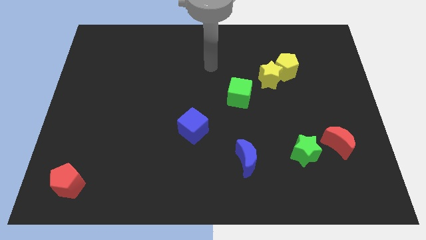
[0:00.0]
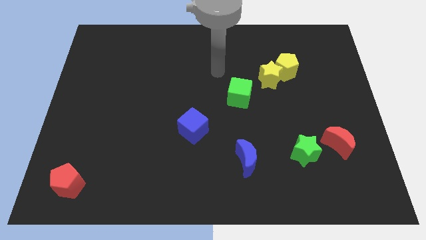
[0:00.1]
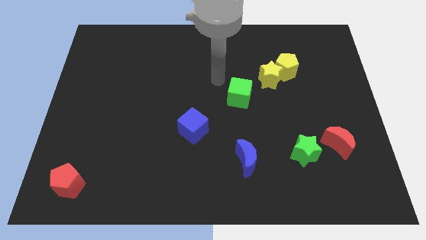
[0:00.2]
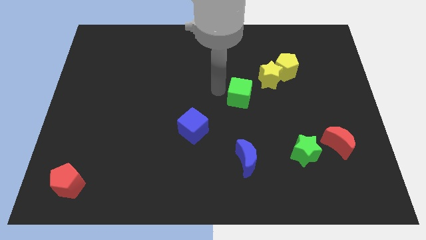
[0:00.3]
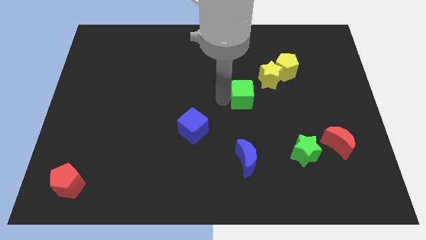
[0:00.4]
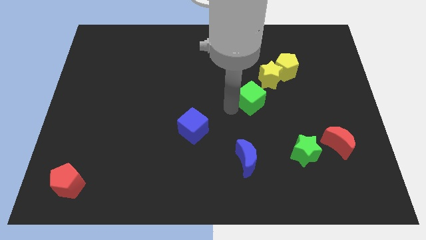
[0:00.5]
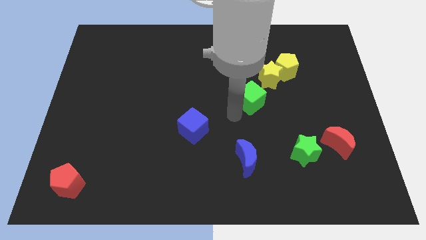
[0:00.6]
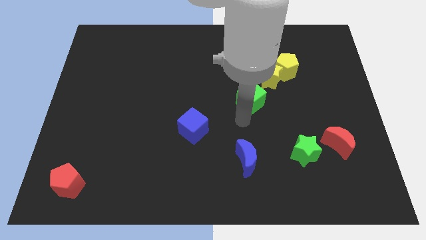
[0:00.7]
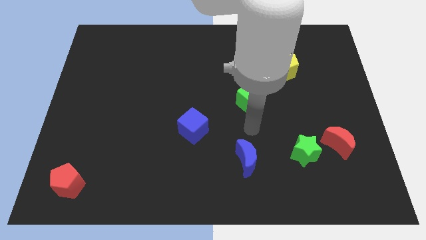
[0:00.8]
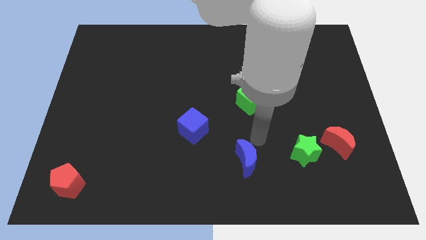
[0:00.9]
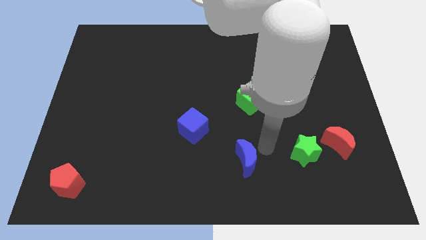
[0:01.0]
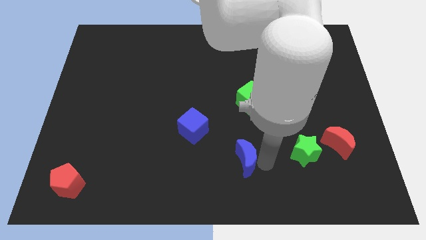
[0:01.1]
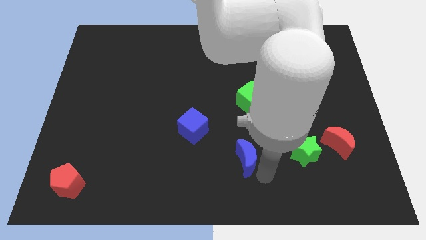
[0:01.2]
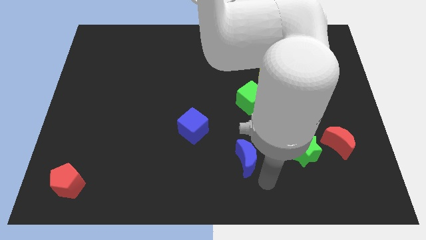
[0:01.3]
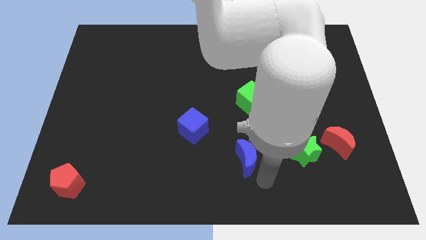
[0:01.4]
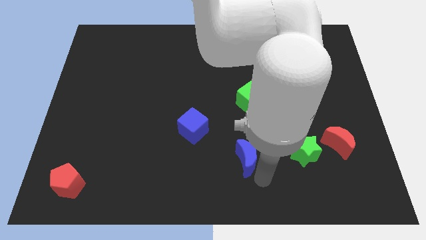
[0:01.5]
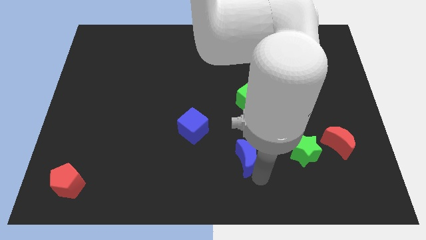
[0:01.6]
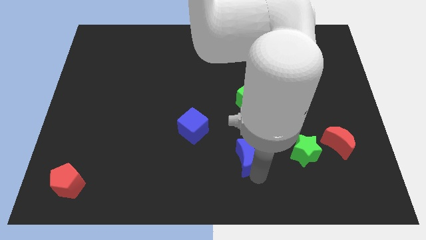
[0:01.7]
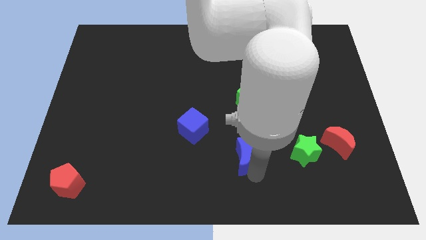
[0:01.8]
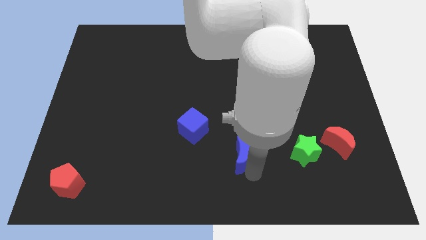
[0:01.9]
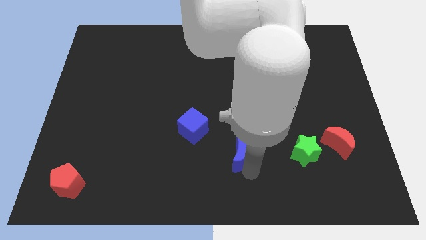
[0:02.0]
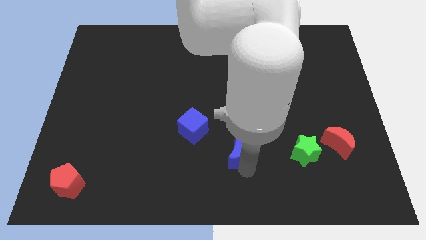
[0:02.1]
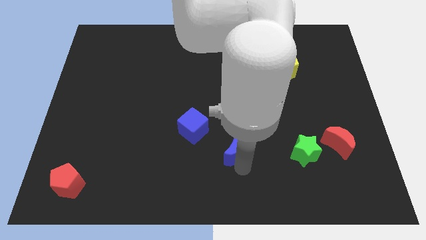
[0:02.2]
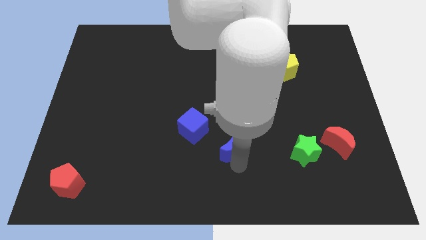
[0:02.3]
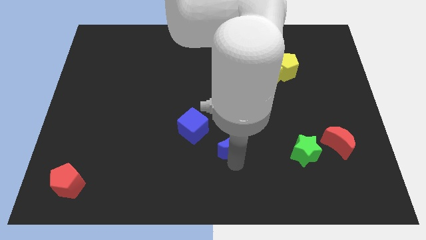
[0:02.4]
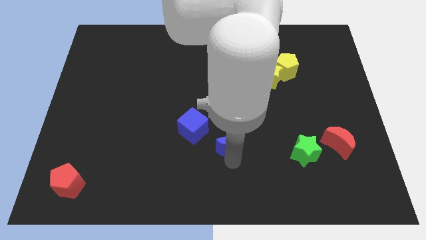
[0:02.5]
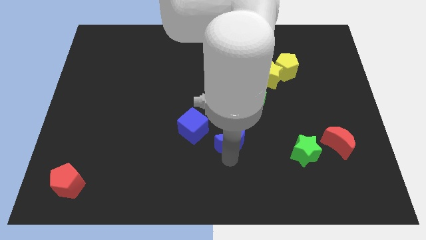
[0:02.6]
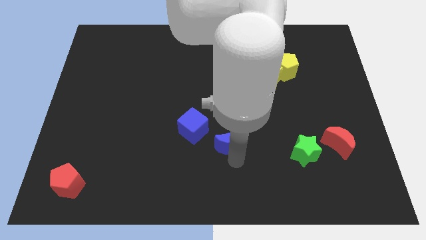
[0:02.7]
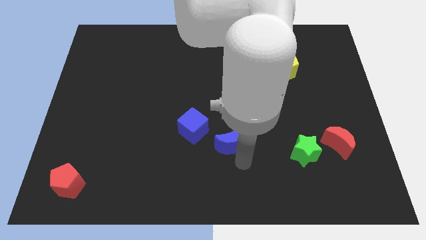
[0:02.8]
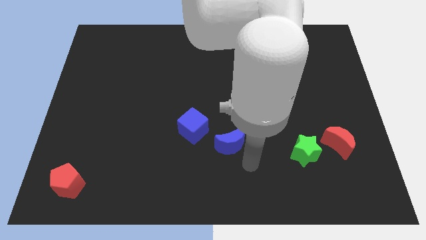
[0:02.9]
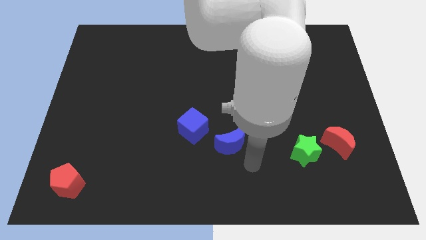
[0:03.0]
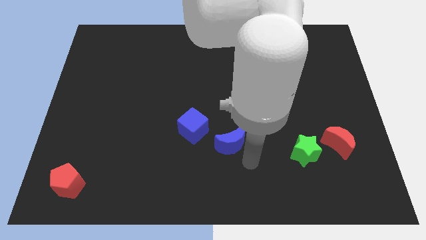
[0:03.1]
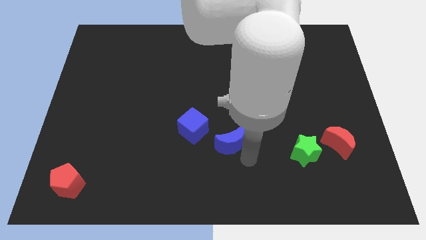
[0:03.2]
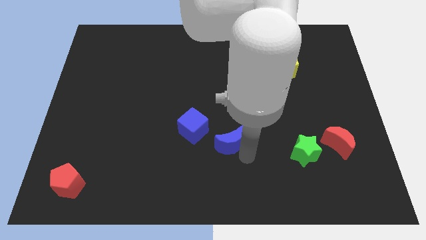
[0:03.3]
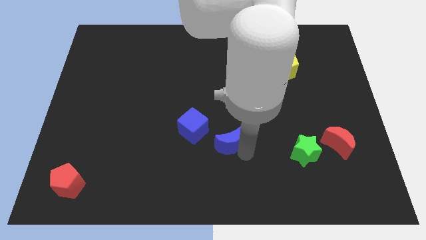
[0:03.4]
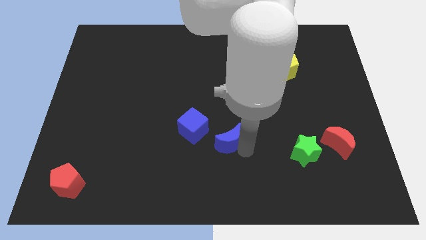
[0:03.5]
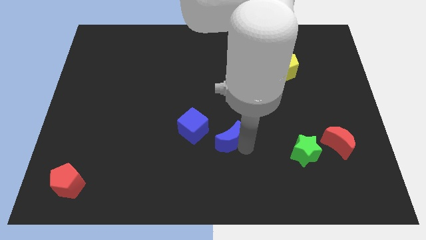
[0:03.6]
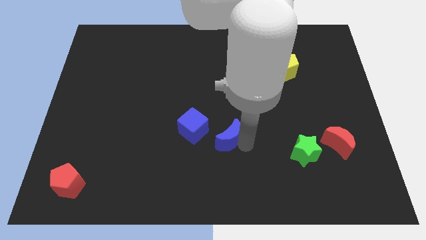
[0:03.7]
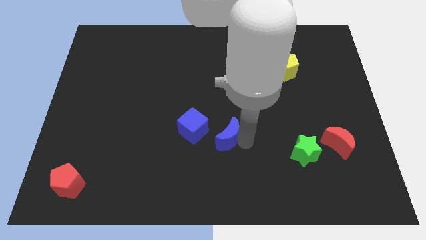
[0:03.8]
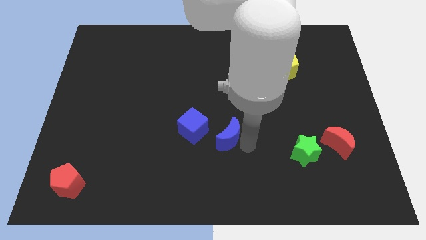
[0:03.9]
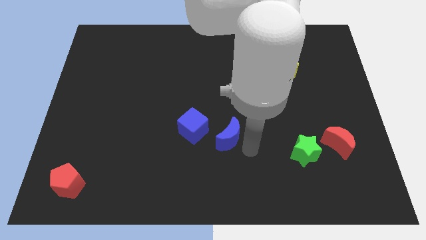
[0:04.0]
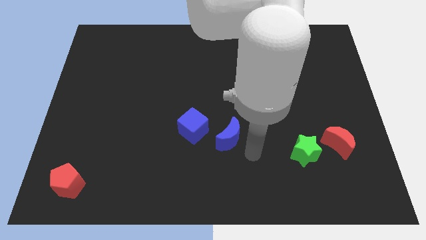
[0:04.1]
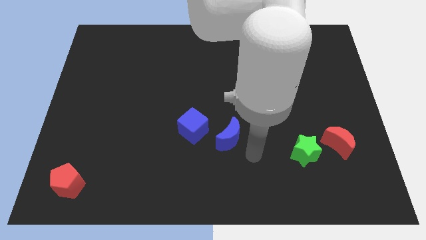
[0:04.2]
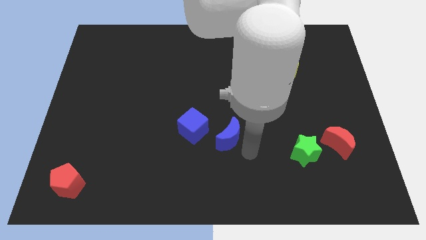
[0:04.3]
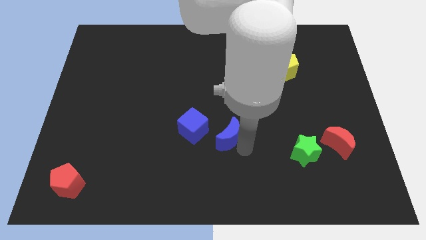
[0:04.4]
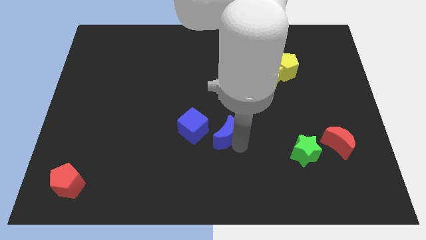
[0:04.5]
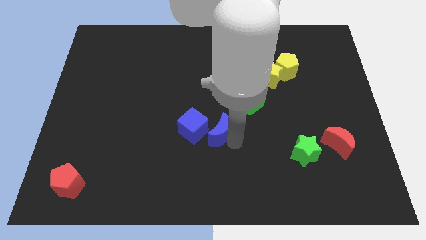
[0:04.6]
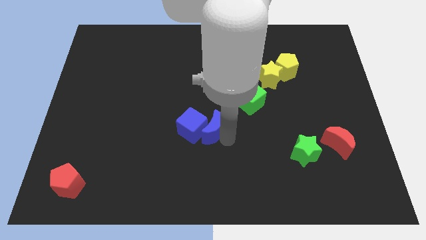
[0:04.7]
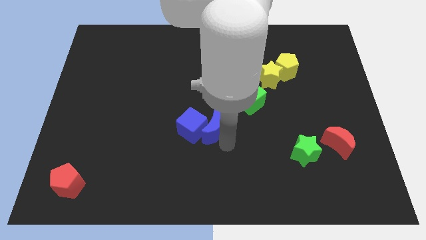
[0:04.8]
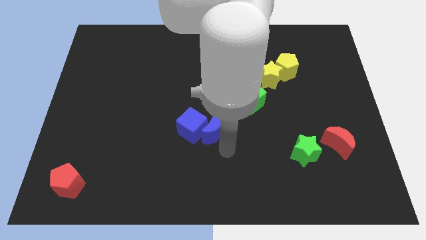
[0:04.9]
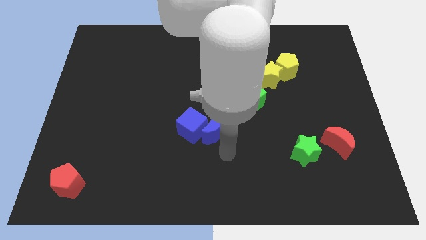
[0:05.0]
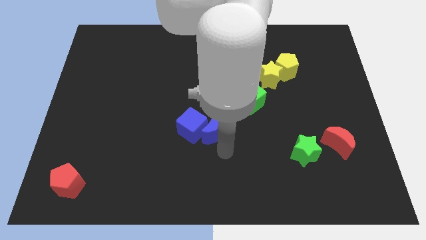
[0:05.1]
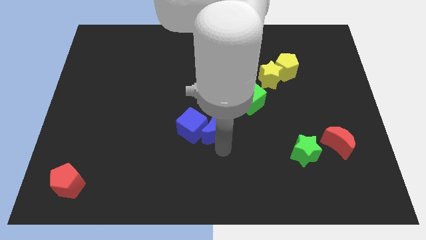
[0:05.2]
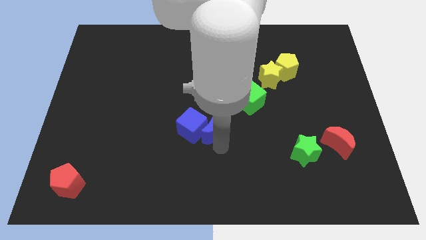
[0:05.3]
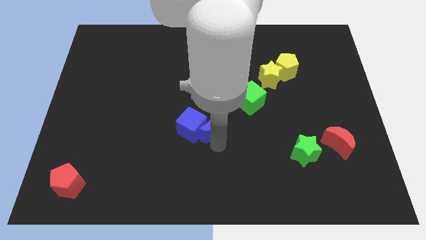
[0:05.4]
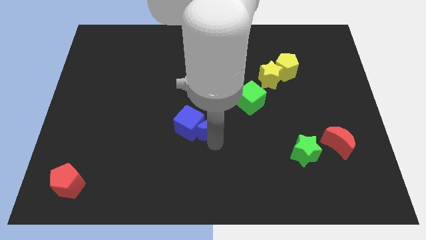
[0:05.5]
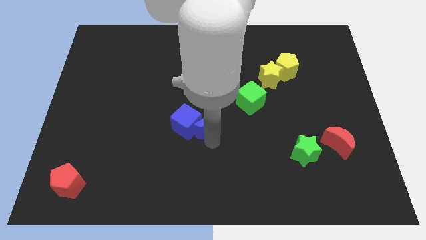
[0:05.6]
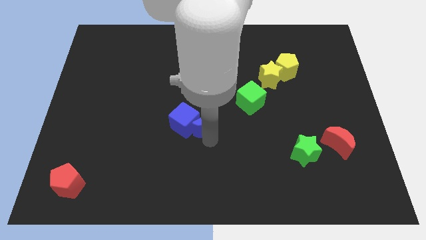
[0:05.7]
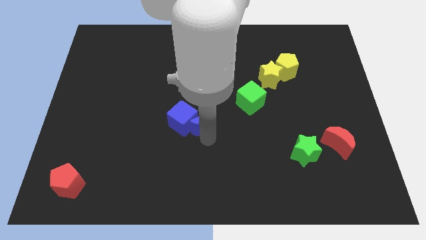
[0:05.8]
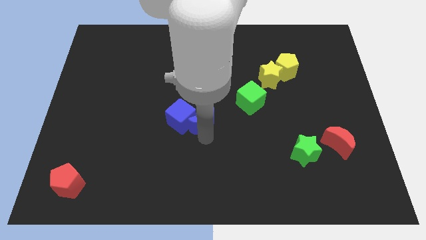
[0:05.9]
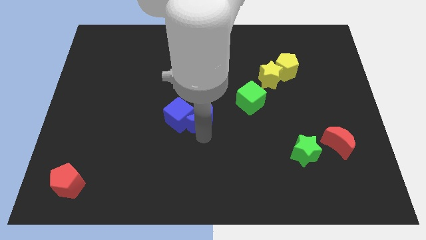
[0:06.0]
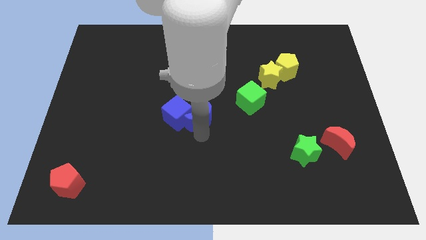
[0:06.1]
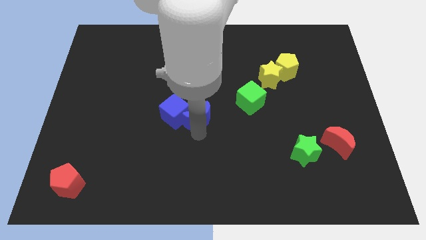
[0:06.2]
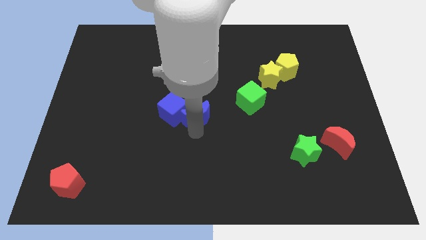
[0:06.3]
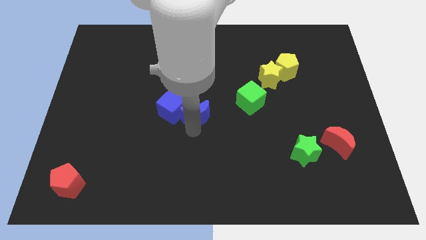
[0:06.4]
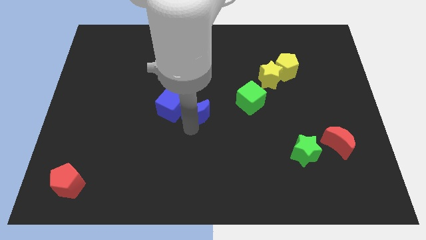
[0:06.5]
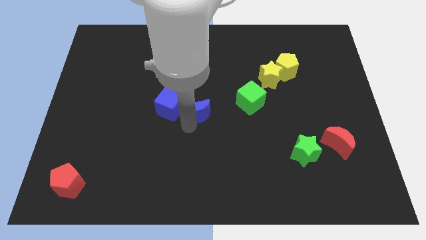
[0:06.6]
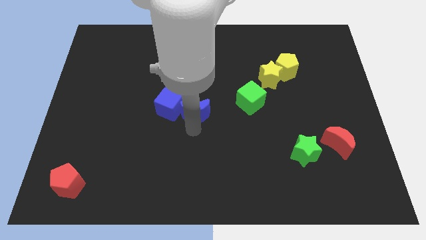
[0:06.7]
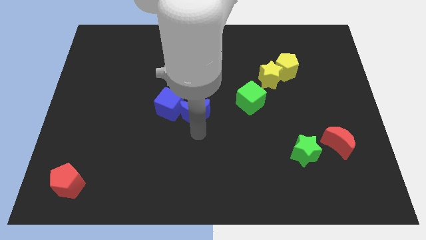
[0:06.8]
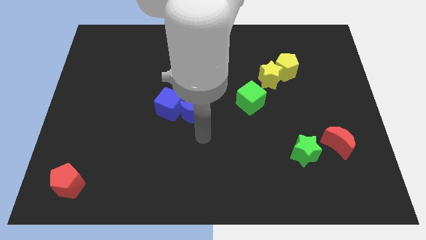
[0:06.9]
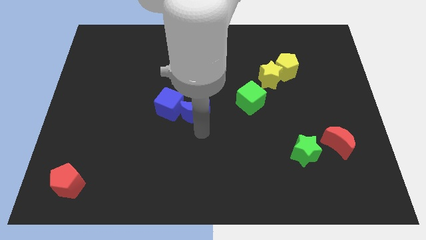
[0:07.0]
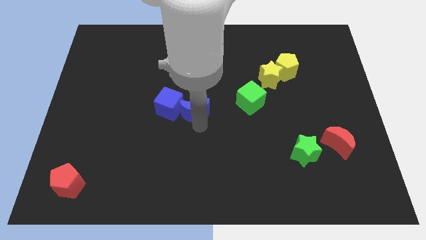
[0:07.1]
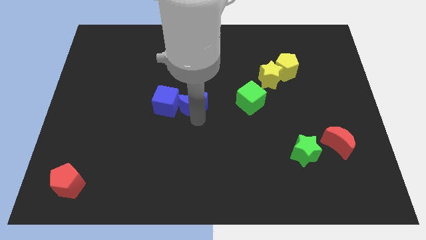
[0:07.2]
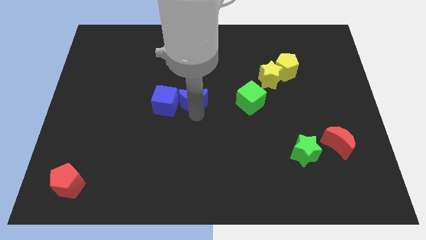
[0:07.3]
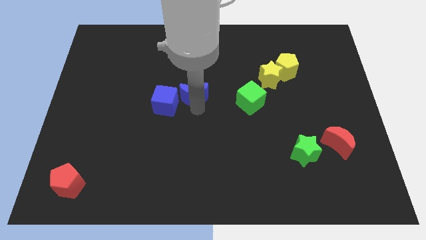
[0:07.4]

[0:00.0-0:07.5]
push the blue moon up and then left

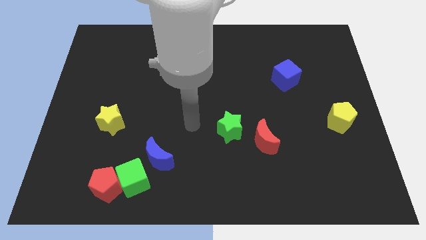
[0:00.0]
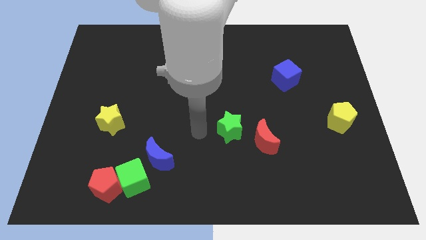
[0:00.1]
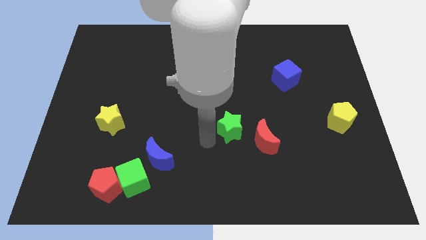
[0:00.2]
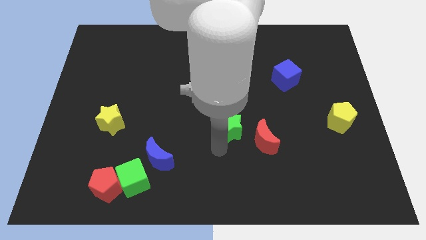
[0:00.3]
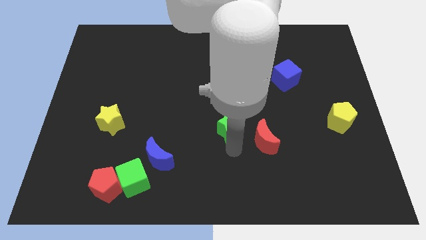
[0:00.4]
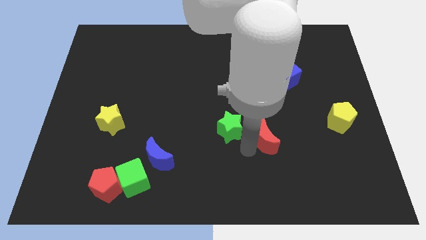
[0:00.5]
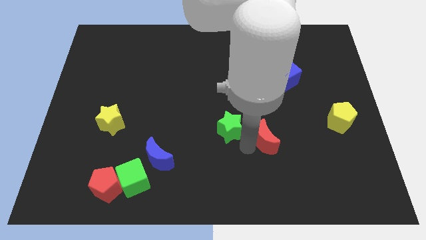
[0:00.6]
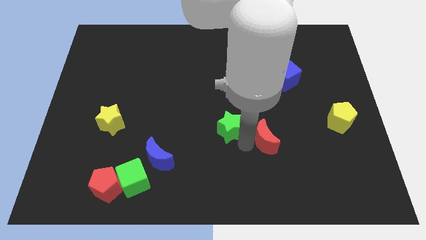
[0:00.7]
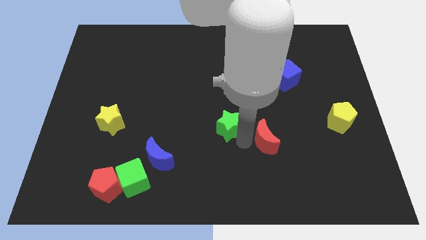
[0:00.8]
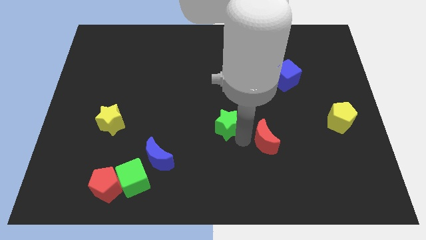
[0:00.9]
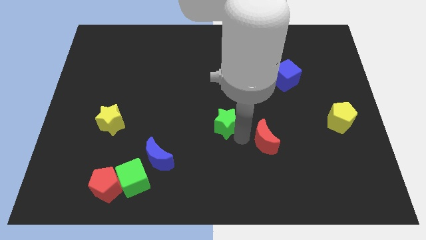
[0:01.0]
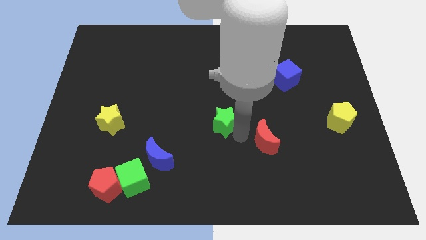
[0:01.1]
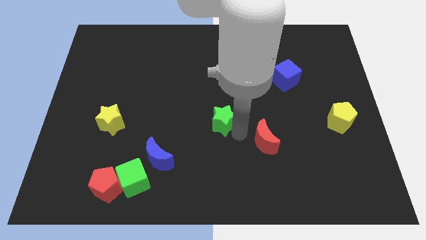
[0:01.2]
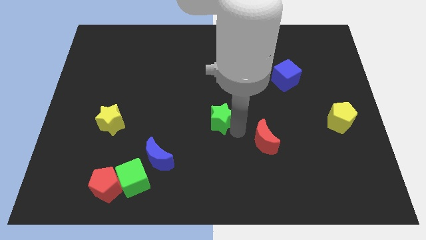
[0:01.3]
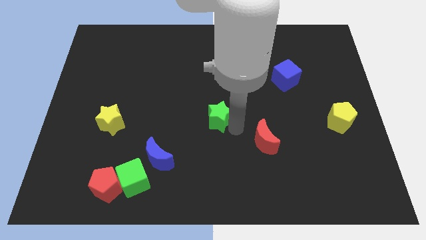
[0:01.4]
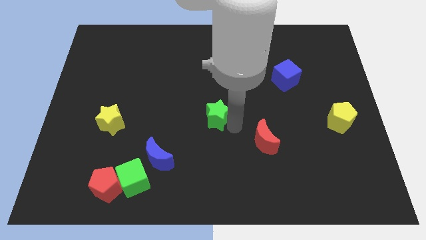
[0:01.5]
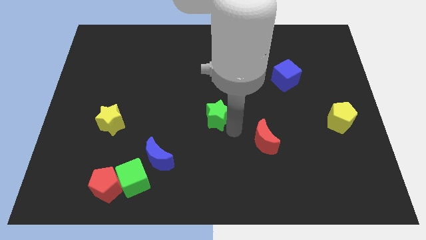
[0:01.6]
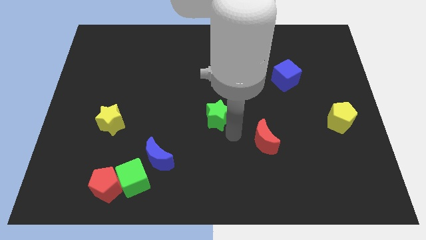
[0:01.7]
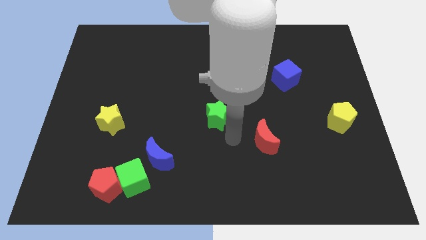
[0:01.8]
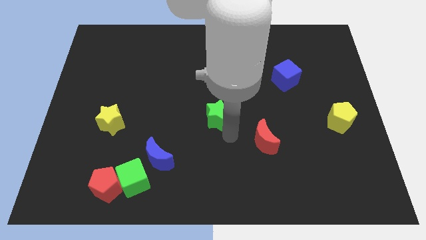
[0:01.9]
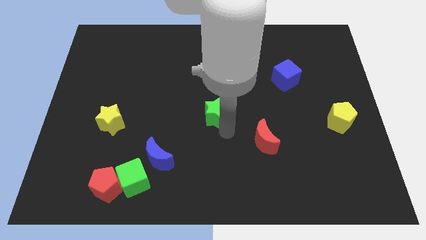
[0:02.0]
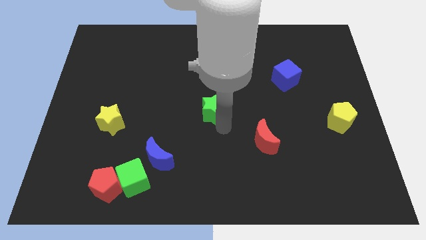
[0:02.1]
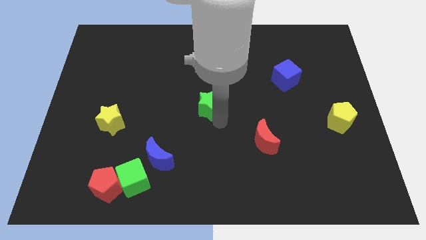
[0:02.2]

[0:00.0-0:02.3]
slightly move the green star diagonally up and left
